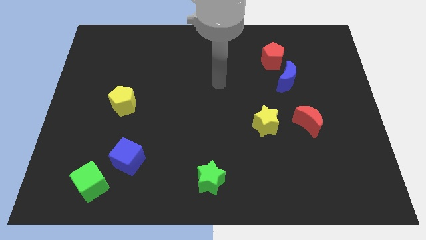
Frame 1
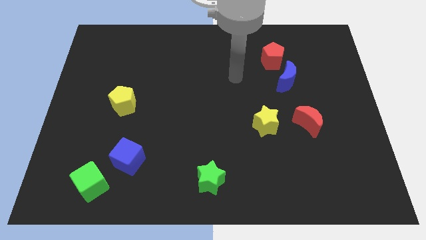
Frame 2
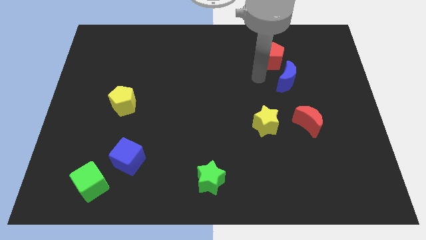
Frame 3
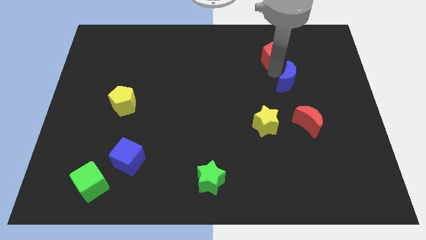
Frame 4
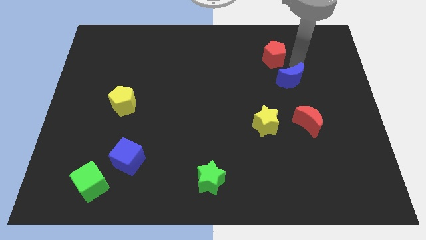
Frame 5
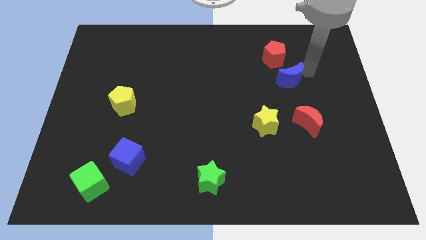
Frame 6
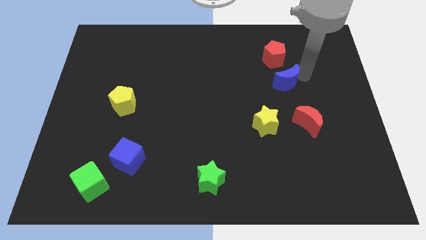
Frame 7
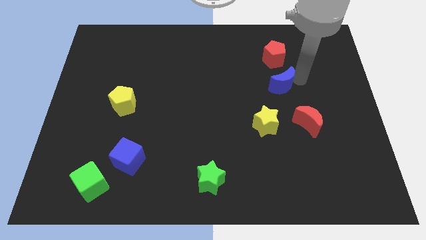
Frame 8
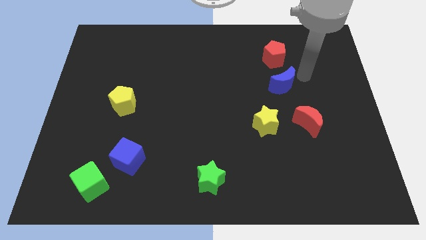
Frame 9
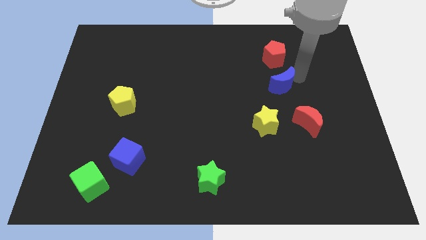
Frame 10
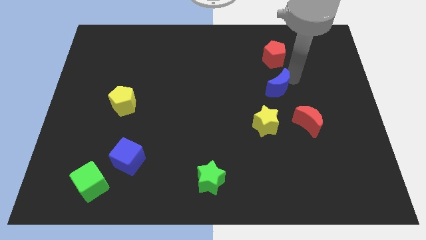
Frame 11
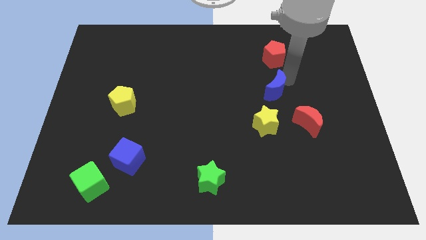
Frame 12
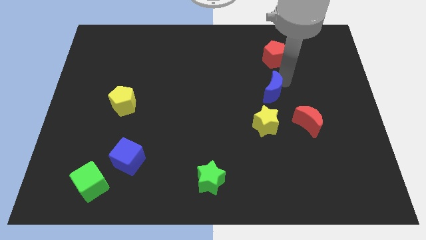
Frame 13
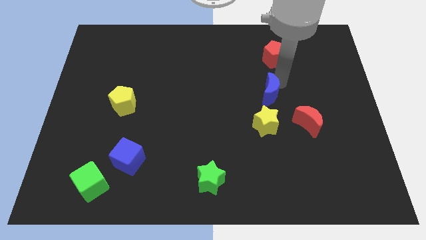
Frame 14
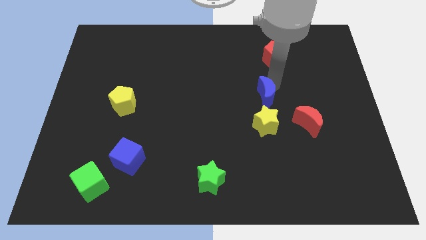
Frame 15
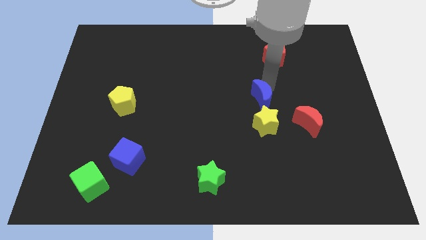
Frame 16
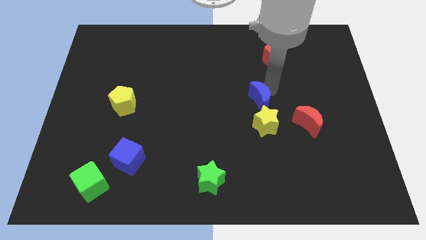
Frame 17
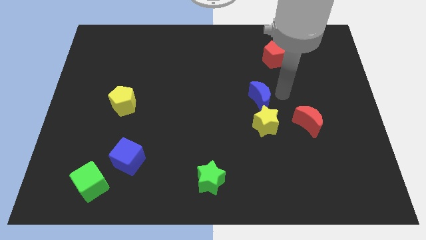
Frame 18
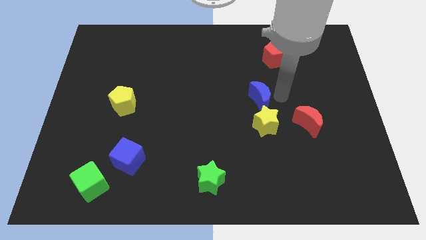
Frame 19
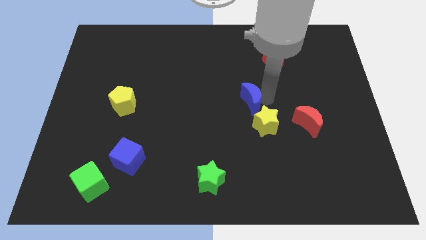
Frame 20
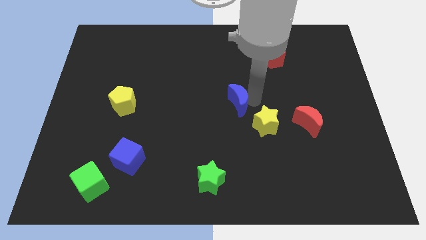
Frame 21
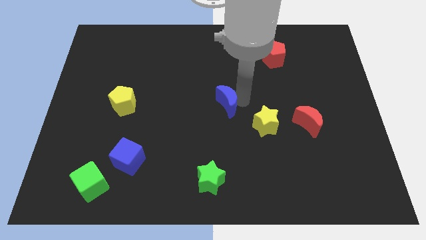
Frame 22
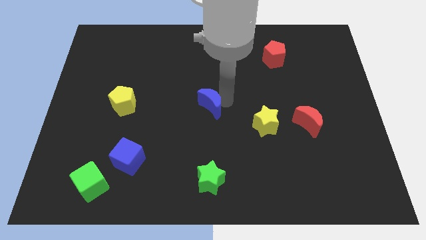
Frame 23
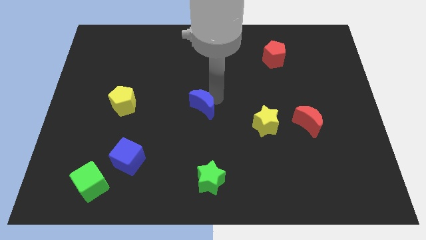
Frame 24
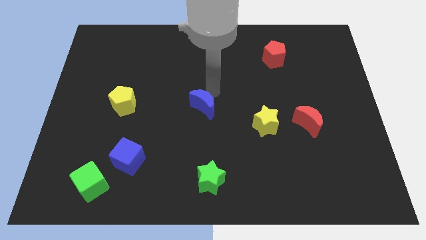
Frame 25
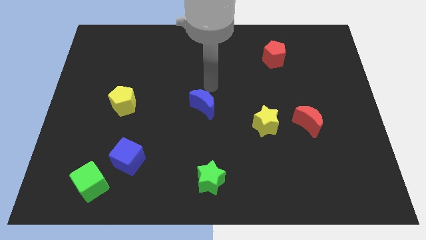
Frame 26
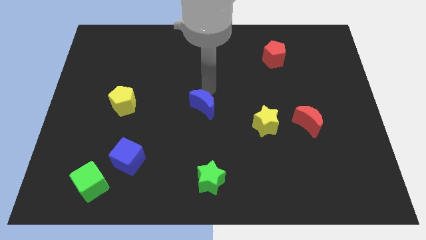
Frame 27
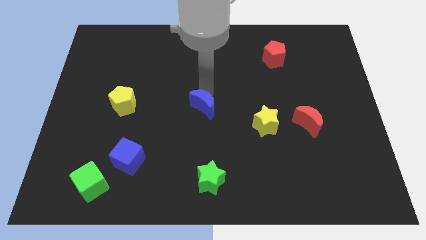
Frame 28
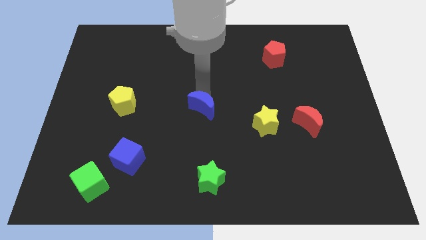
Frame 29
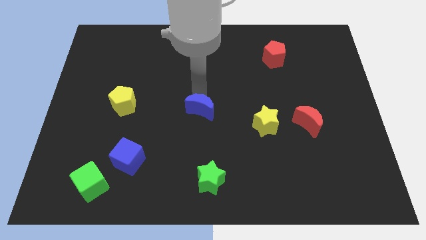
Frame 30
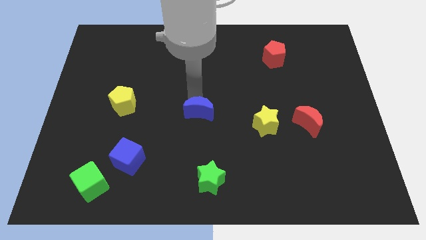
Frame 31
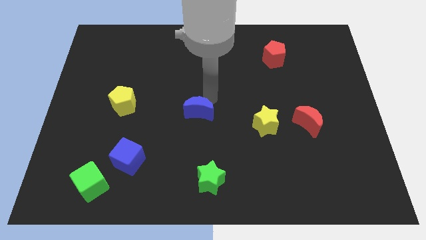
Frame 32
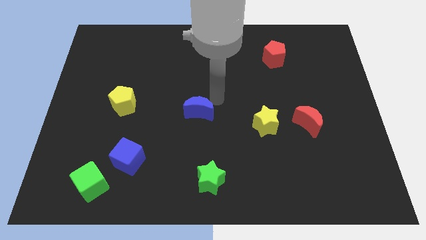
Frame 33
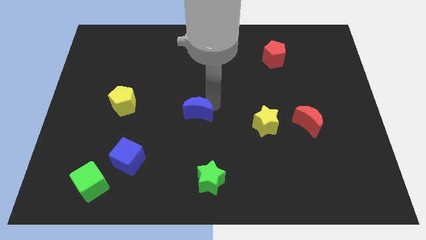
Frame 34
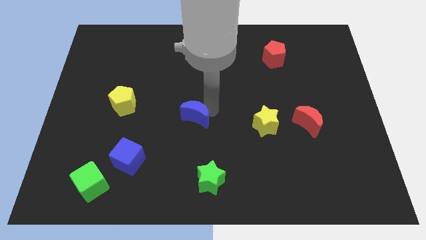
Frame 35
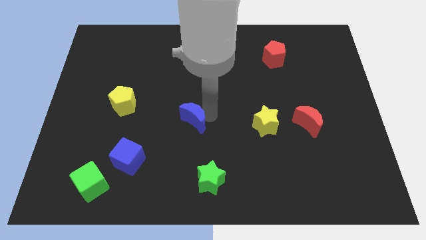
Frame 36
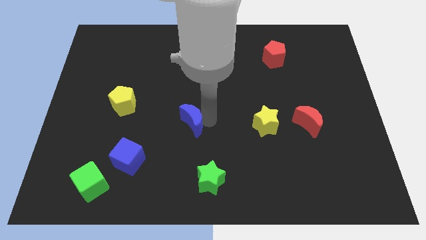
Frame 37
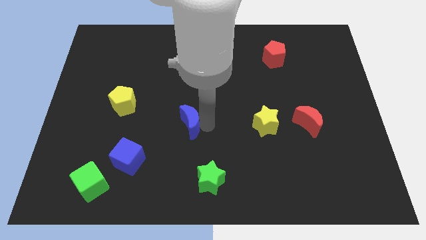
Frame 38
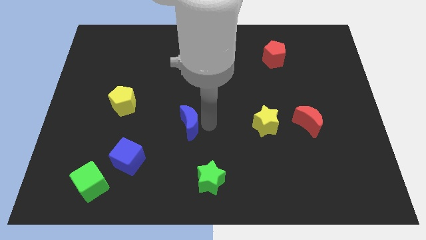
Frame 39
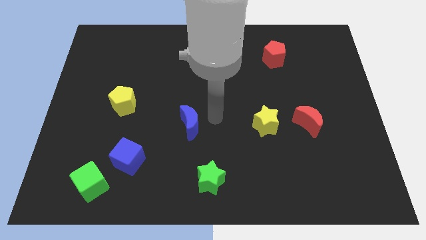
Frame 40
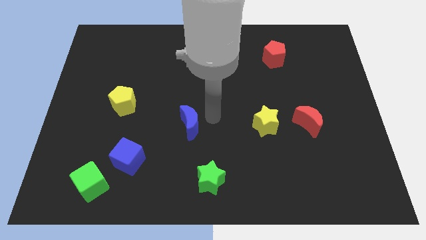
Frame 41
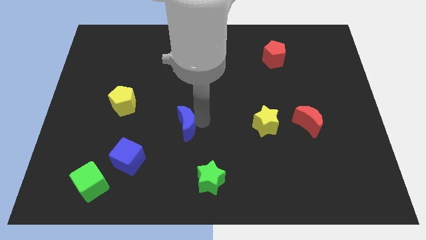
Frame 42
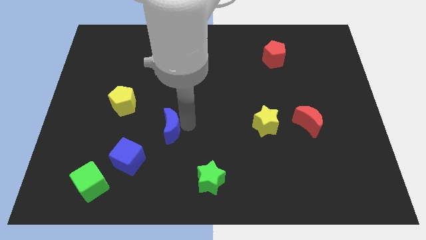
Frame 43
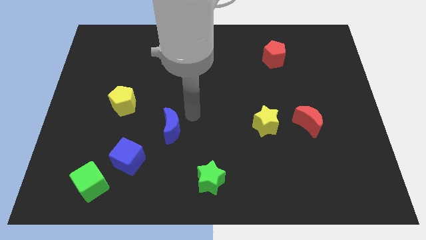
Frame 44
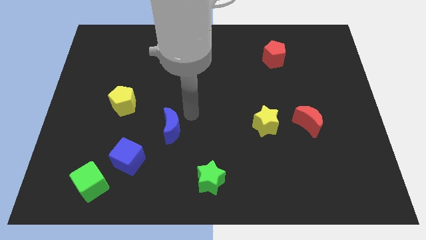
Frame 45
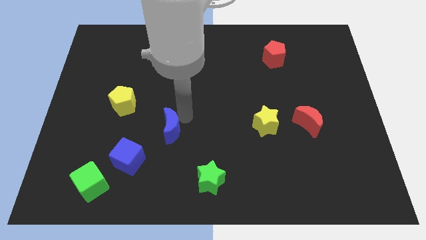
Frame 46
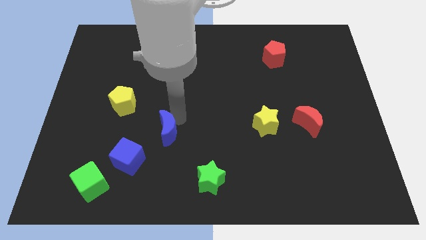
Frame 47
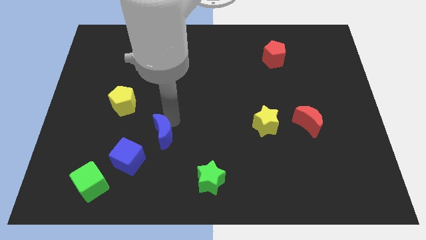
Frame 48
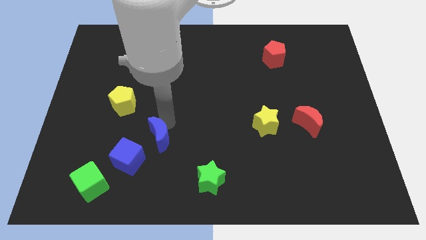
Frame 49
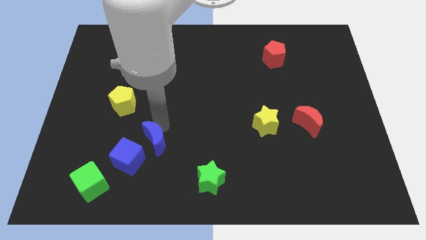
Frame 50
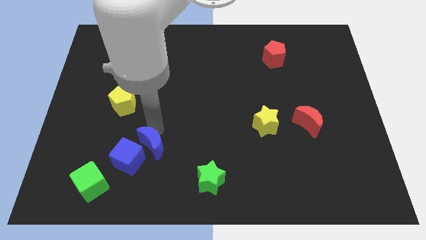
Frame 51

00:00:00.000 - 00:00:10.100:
put the blue moon to the blue cube
